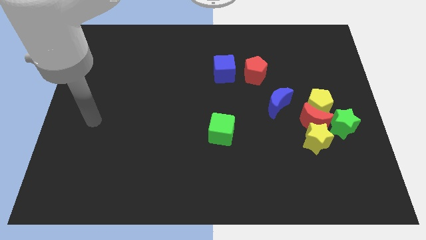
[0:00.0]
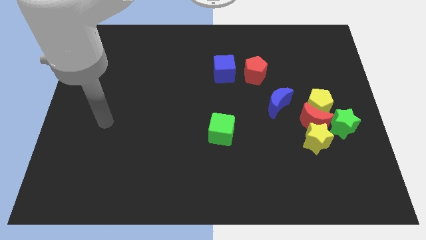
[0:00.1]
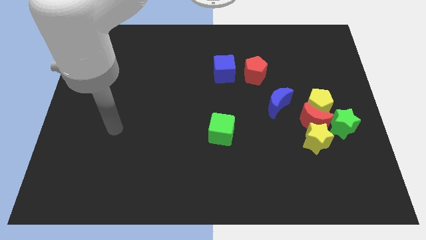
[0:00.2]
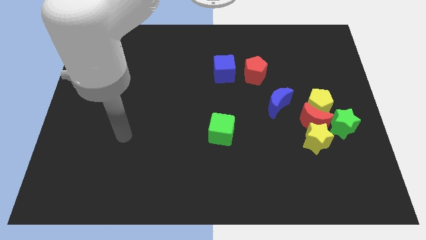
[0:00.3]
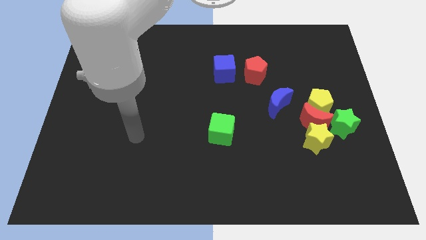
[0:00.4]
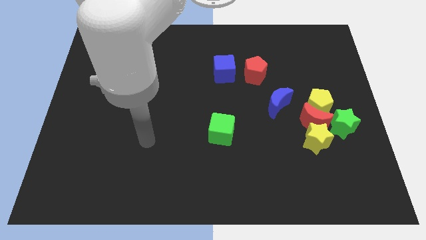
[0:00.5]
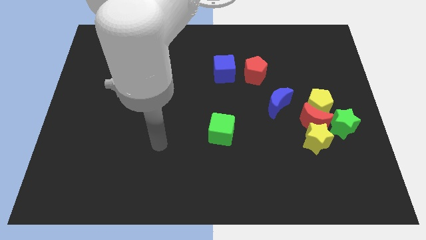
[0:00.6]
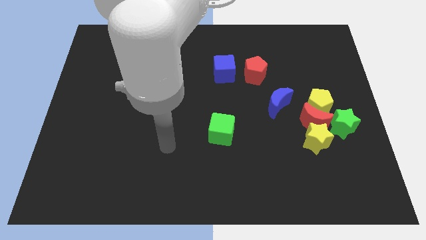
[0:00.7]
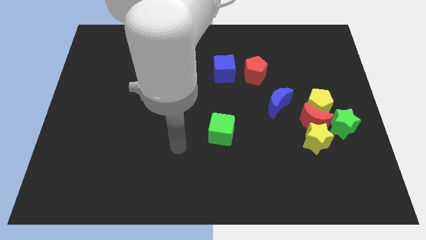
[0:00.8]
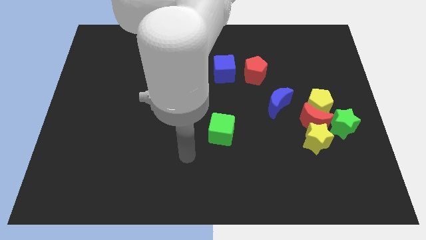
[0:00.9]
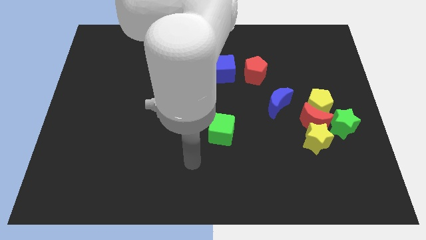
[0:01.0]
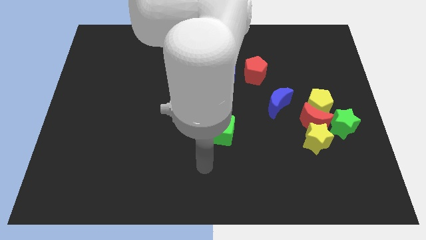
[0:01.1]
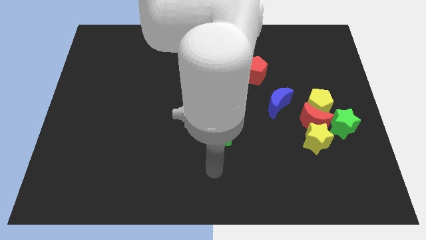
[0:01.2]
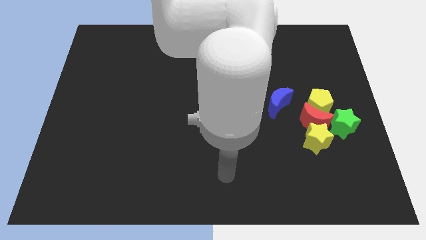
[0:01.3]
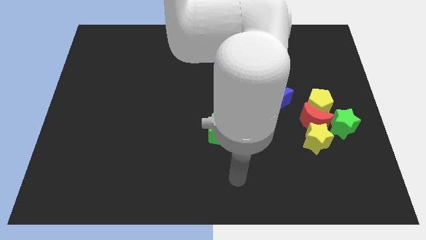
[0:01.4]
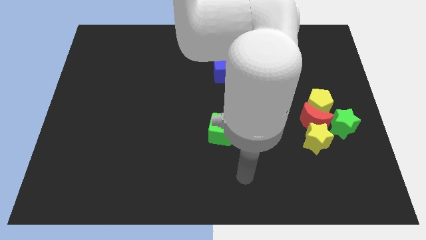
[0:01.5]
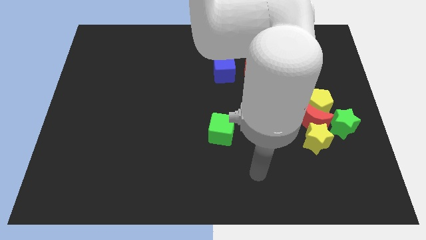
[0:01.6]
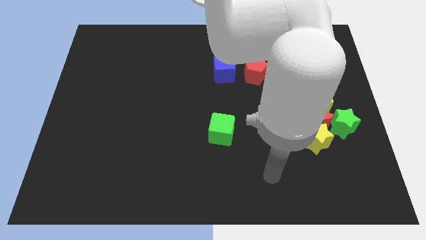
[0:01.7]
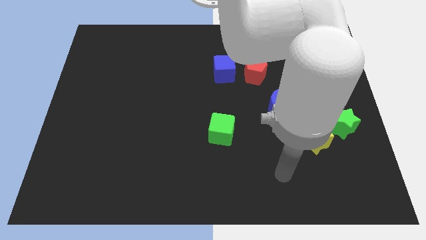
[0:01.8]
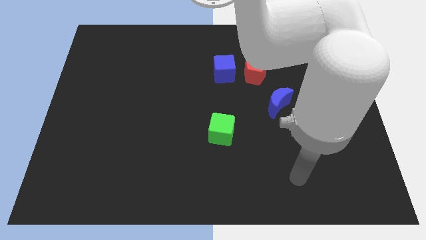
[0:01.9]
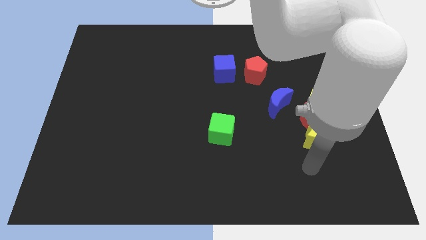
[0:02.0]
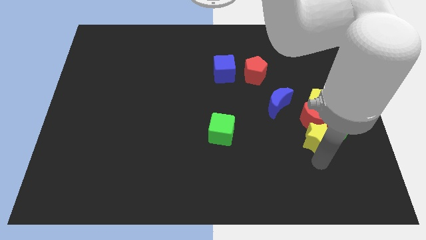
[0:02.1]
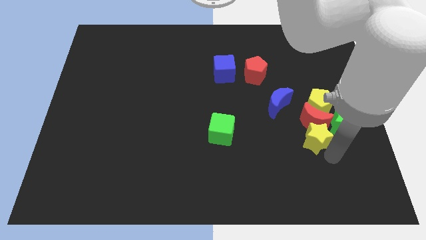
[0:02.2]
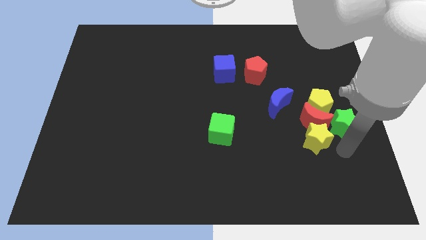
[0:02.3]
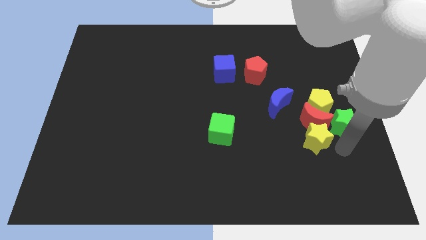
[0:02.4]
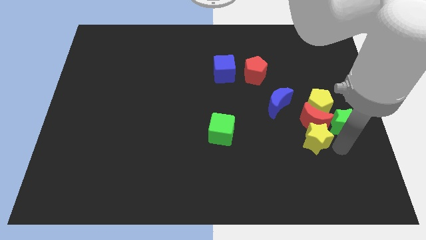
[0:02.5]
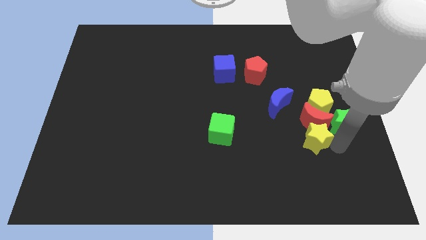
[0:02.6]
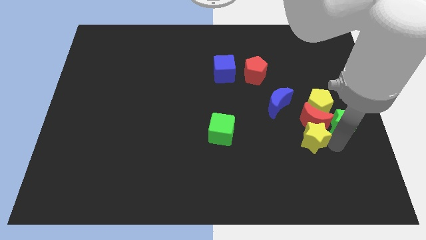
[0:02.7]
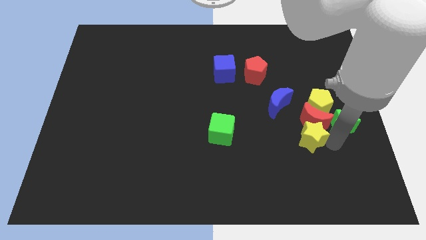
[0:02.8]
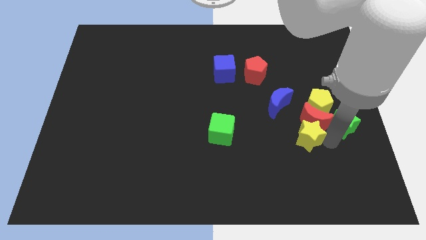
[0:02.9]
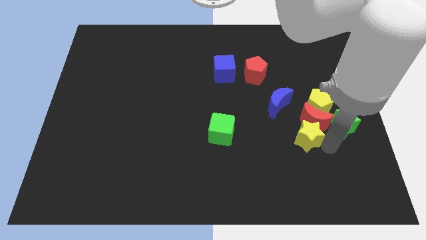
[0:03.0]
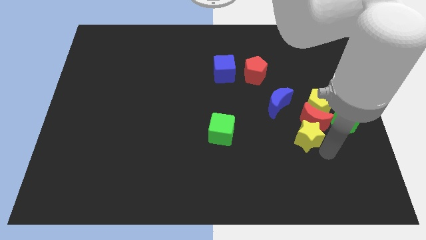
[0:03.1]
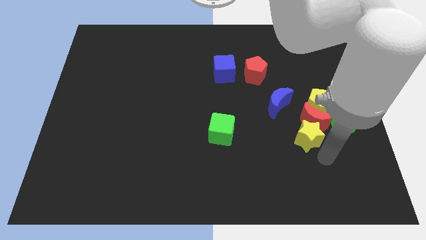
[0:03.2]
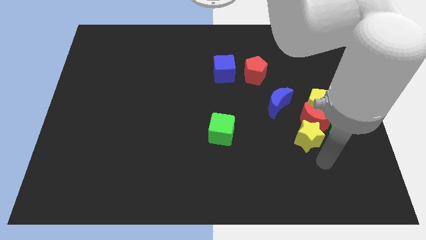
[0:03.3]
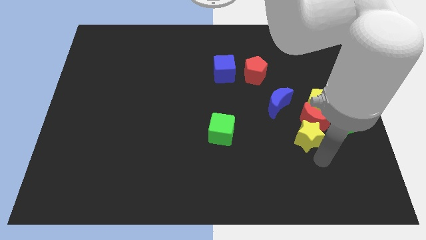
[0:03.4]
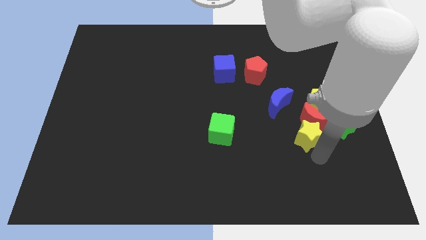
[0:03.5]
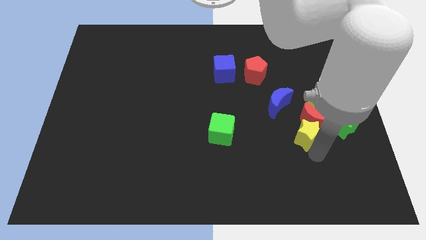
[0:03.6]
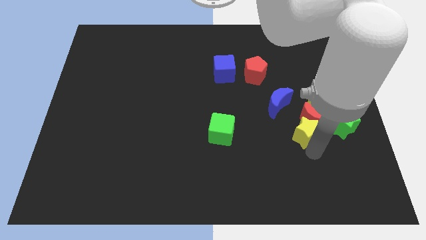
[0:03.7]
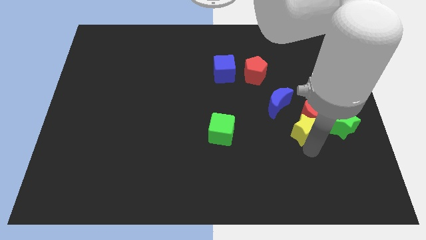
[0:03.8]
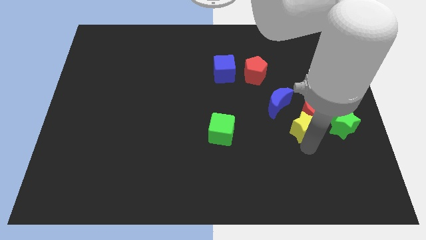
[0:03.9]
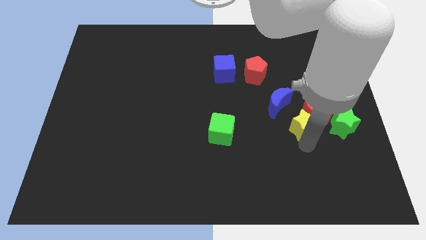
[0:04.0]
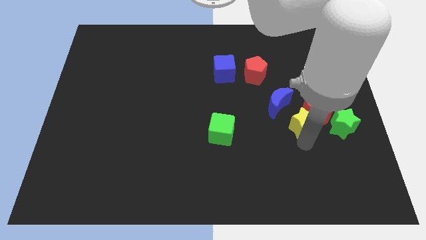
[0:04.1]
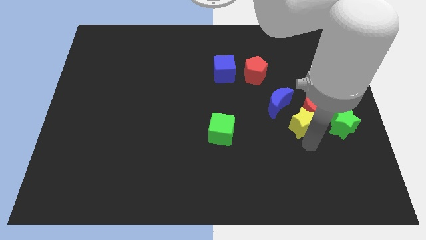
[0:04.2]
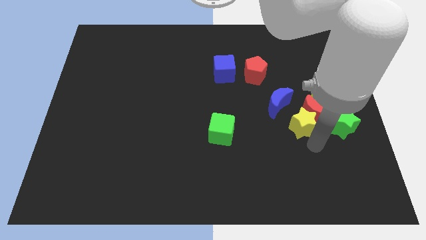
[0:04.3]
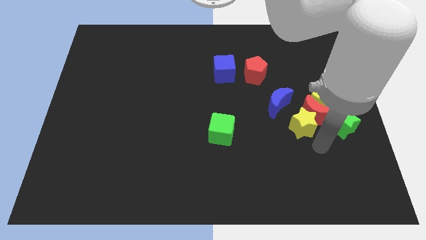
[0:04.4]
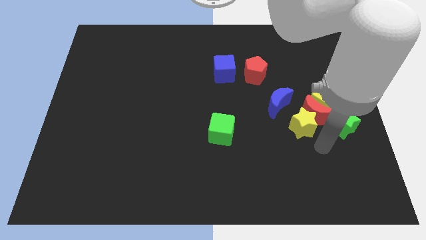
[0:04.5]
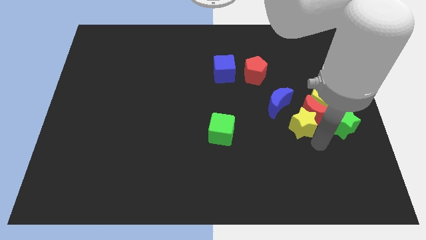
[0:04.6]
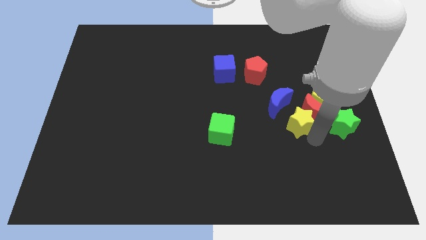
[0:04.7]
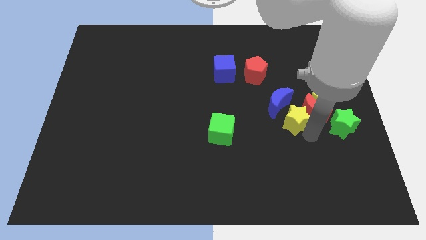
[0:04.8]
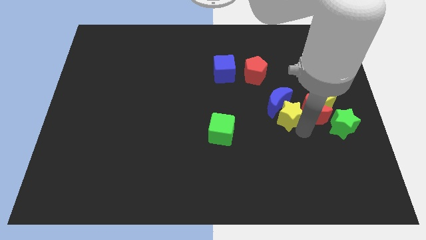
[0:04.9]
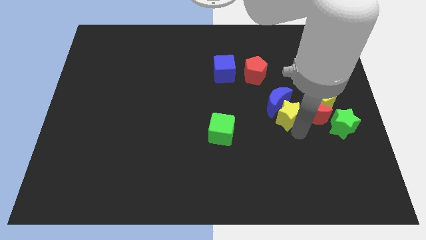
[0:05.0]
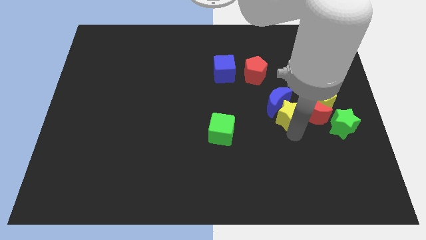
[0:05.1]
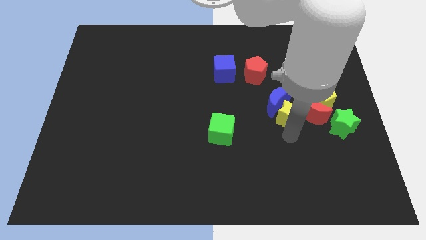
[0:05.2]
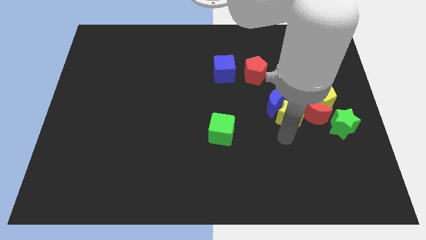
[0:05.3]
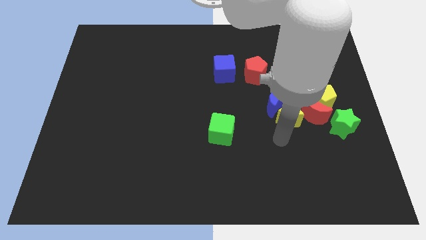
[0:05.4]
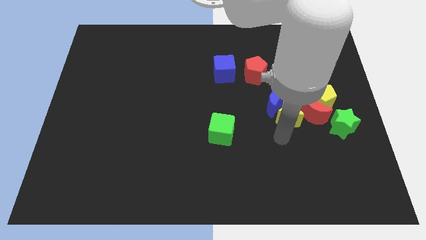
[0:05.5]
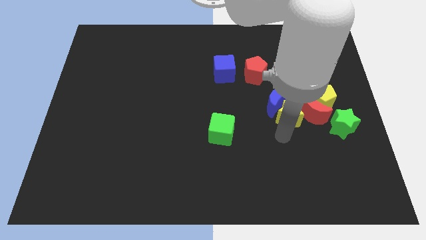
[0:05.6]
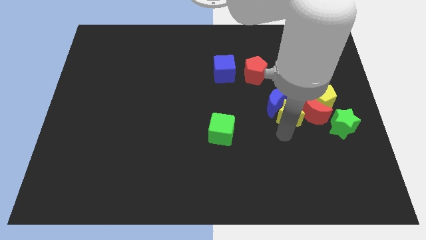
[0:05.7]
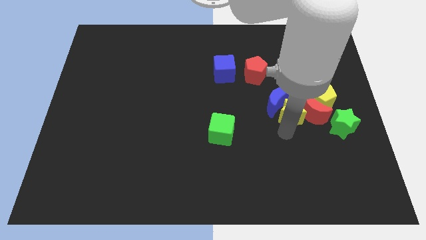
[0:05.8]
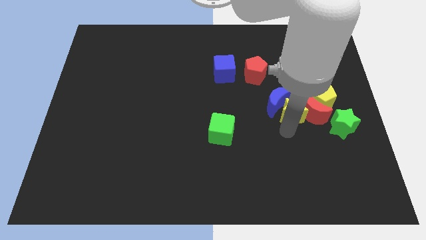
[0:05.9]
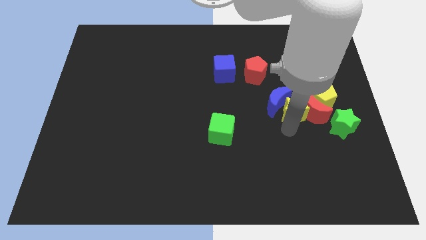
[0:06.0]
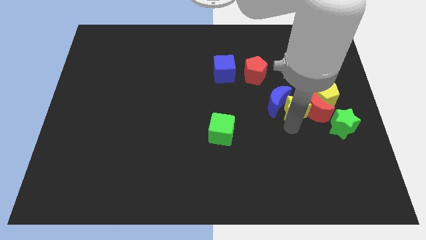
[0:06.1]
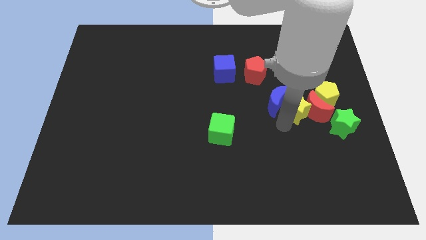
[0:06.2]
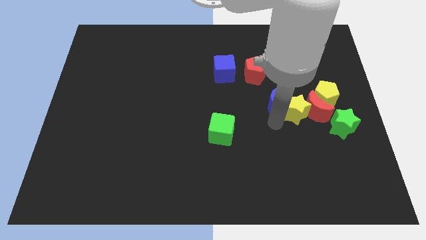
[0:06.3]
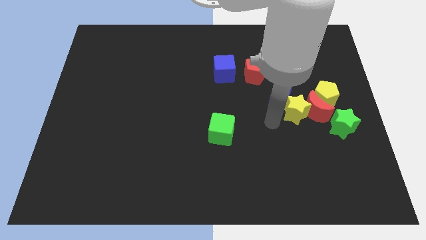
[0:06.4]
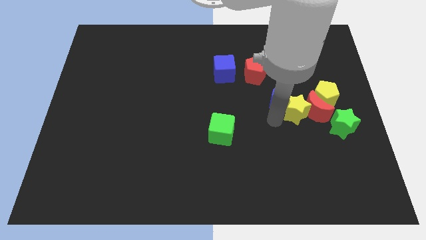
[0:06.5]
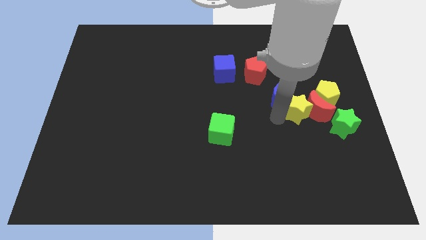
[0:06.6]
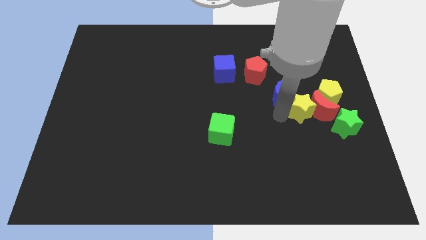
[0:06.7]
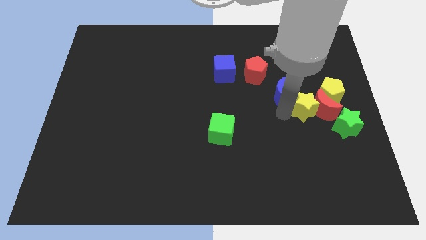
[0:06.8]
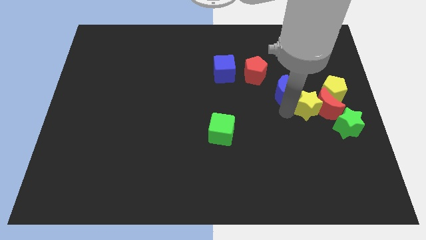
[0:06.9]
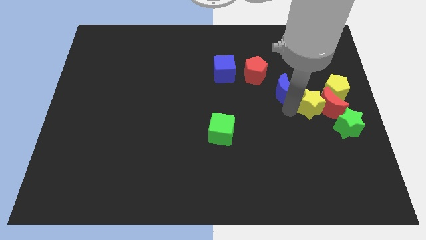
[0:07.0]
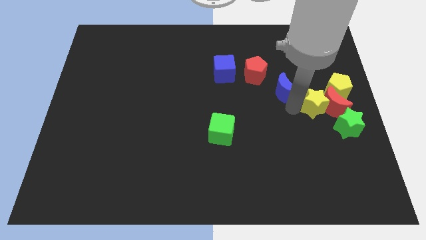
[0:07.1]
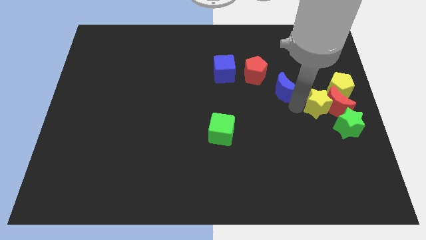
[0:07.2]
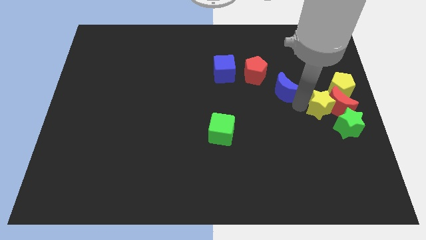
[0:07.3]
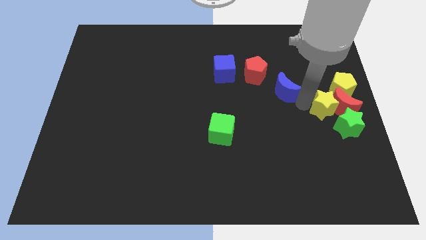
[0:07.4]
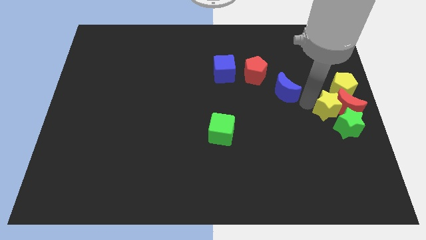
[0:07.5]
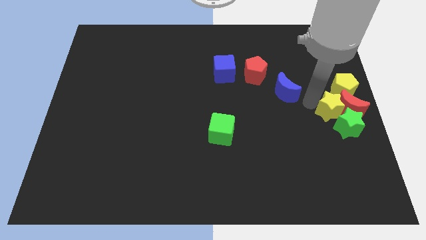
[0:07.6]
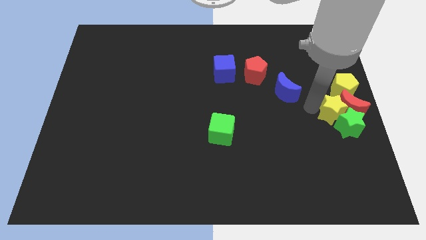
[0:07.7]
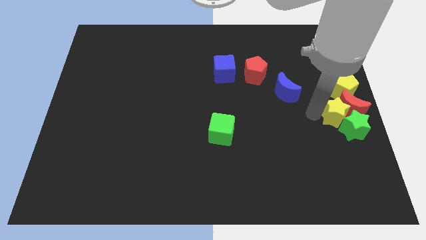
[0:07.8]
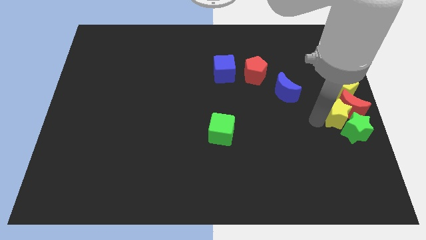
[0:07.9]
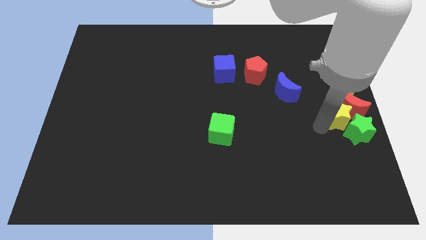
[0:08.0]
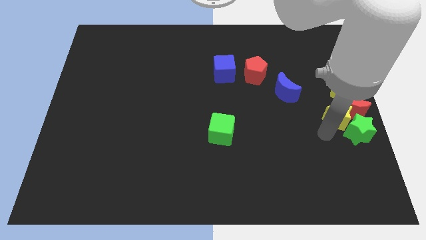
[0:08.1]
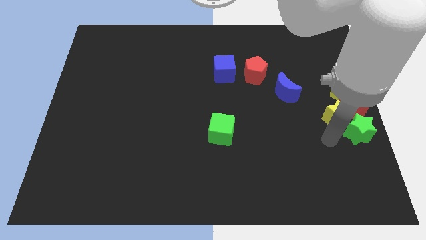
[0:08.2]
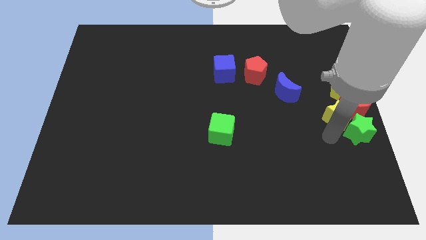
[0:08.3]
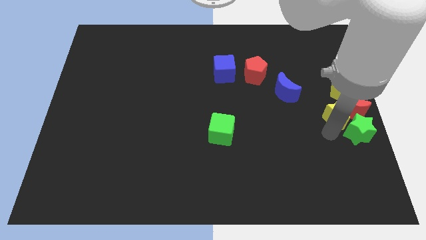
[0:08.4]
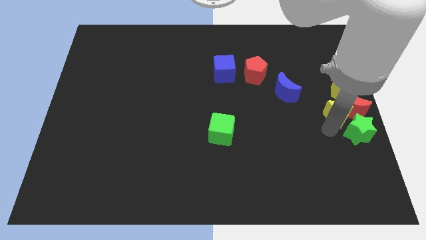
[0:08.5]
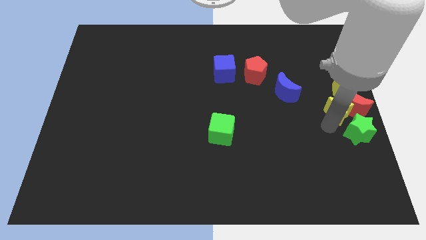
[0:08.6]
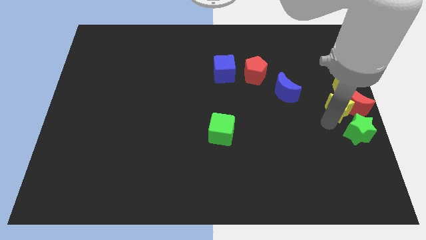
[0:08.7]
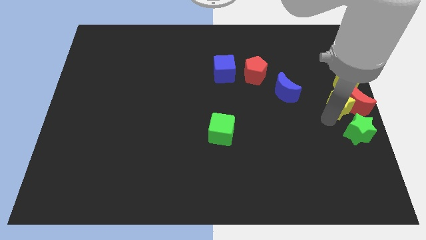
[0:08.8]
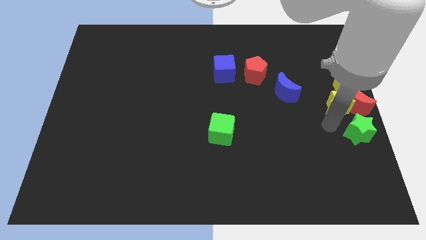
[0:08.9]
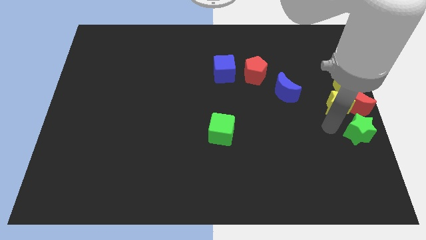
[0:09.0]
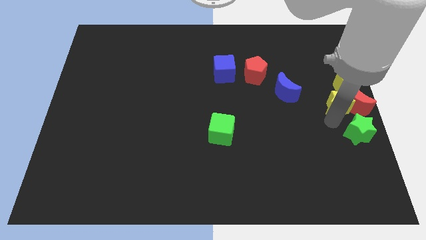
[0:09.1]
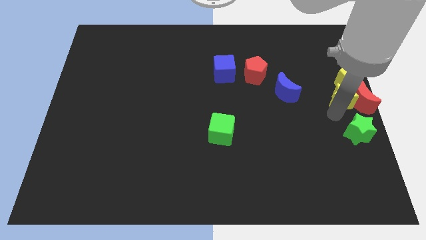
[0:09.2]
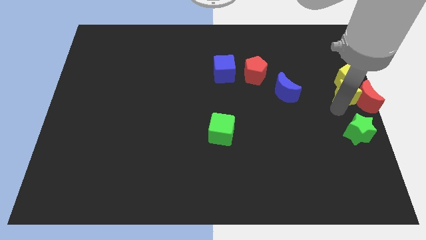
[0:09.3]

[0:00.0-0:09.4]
move the yellow star next to the yellow pentagon
